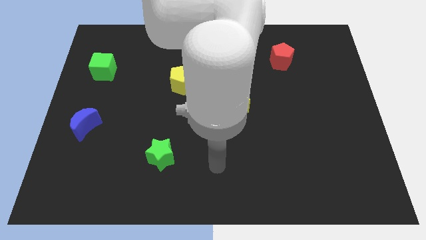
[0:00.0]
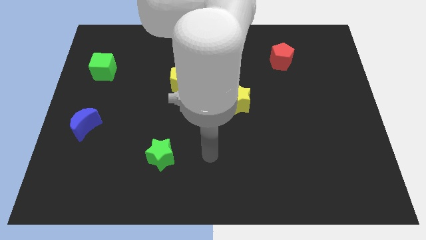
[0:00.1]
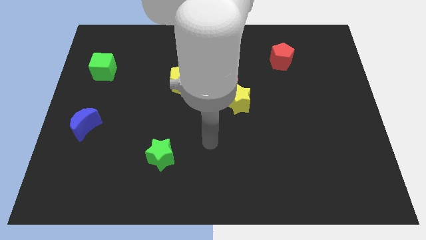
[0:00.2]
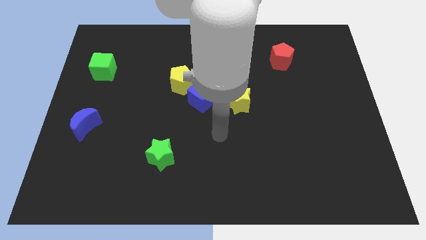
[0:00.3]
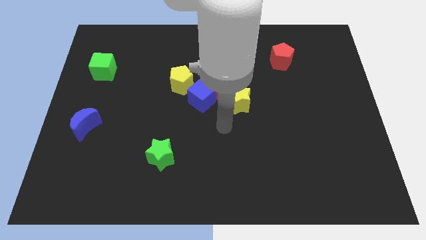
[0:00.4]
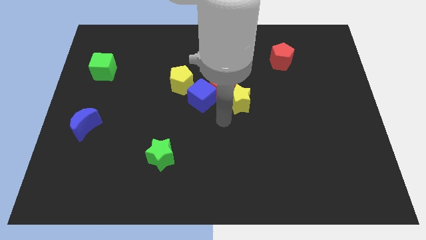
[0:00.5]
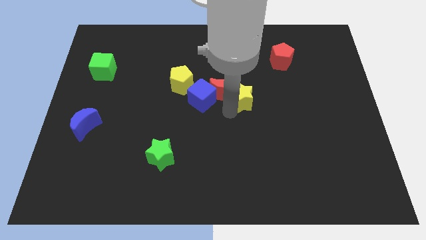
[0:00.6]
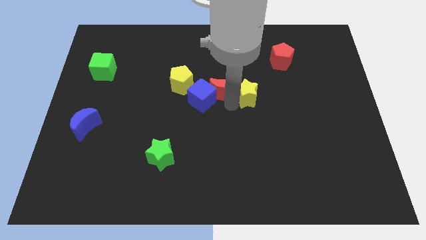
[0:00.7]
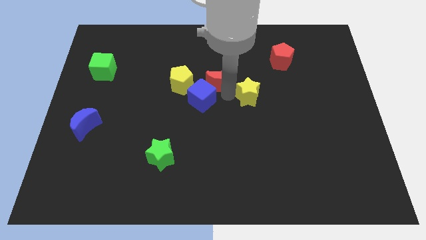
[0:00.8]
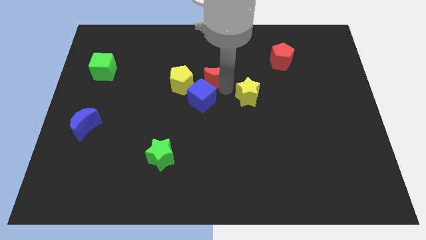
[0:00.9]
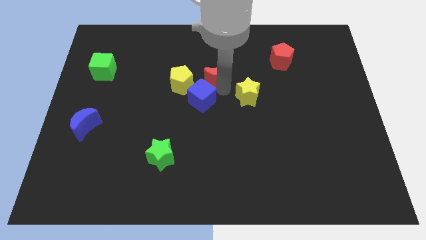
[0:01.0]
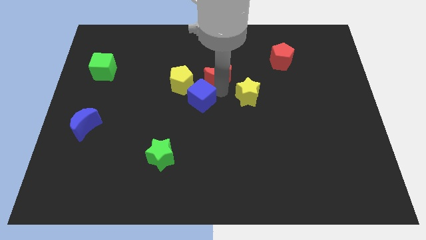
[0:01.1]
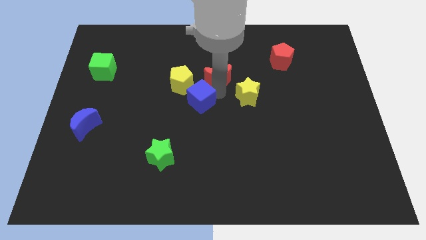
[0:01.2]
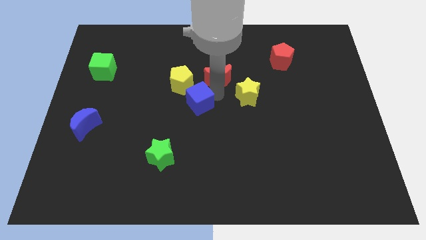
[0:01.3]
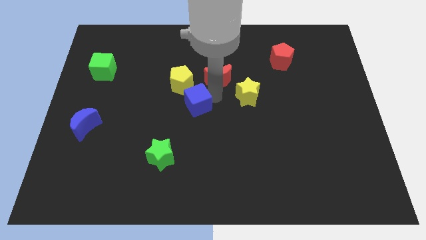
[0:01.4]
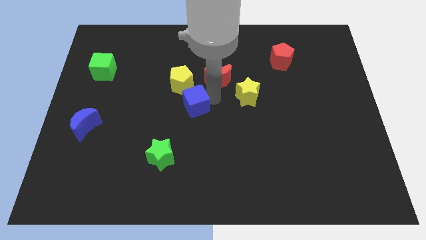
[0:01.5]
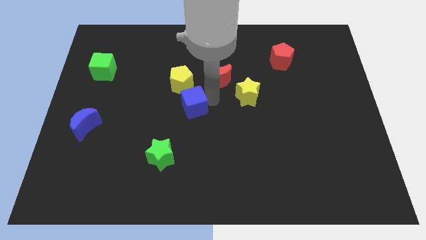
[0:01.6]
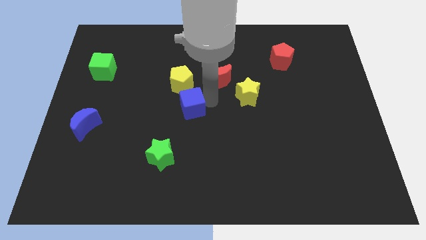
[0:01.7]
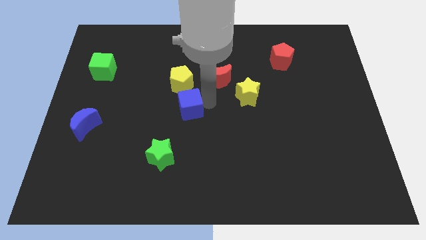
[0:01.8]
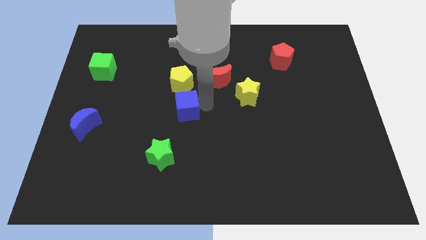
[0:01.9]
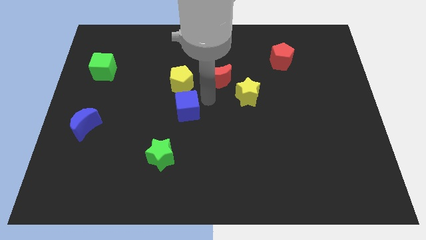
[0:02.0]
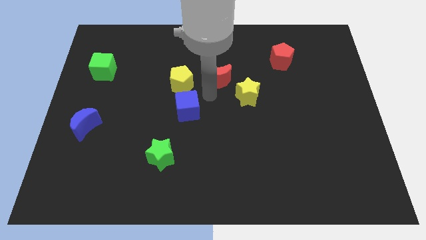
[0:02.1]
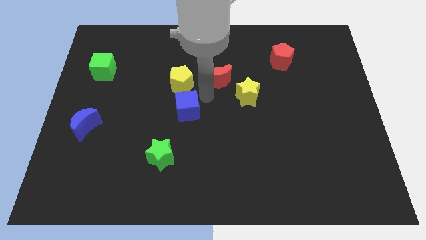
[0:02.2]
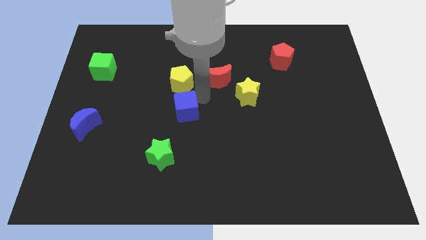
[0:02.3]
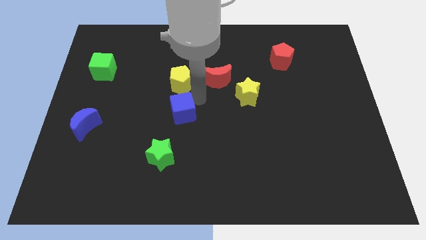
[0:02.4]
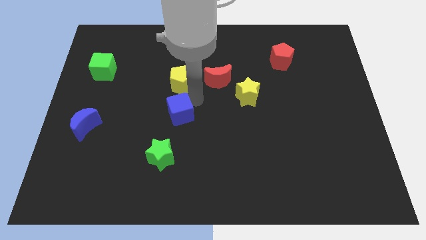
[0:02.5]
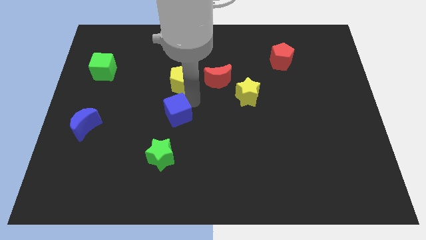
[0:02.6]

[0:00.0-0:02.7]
push the blue cube a little downwards and left diagonally

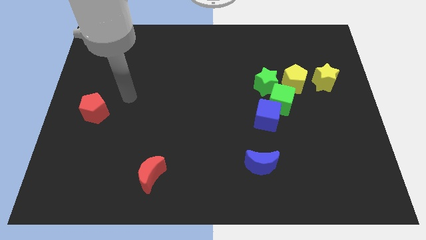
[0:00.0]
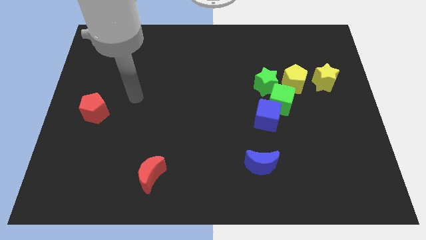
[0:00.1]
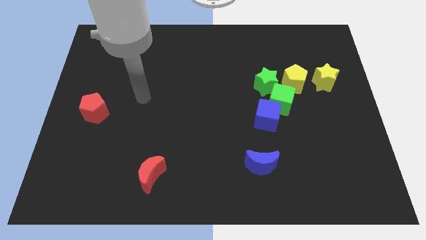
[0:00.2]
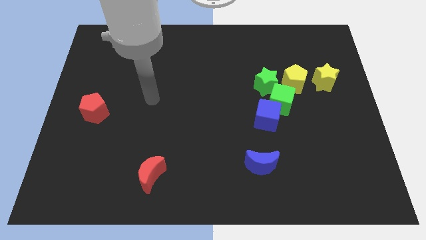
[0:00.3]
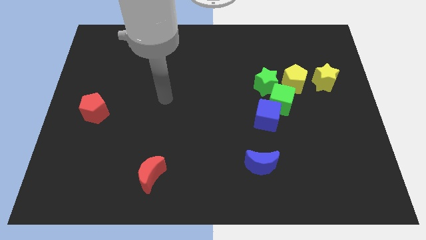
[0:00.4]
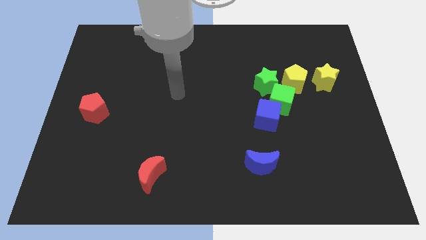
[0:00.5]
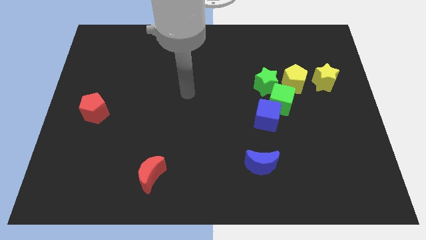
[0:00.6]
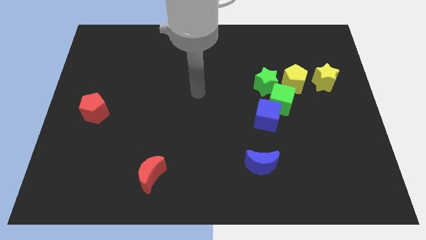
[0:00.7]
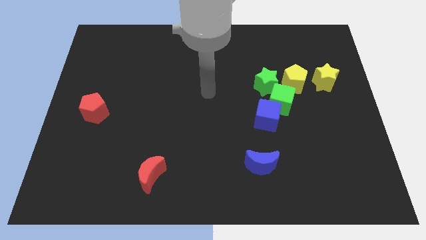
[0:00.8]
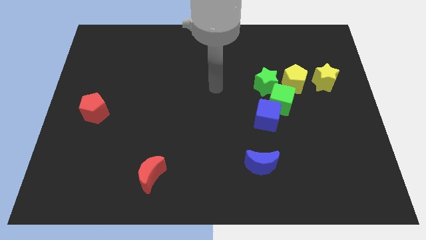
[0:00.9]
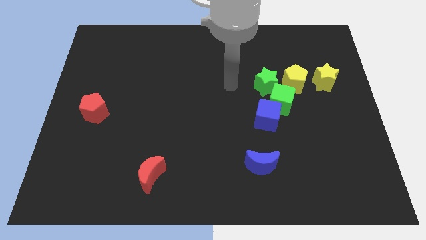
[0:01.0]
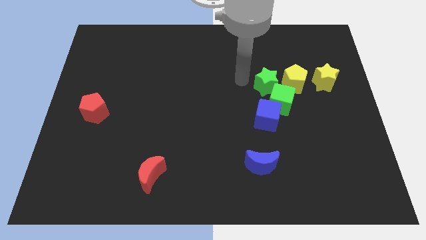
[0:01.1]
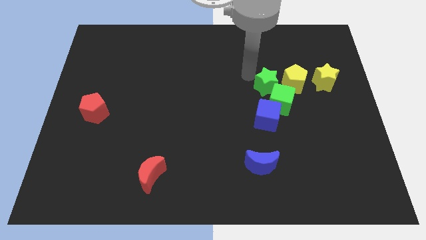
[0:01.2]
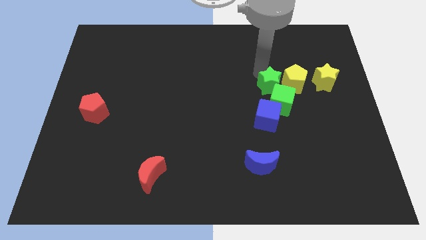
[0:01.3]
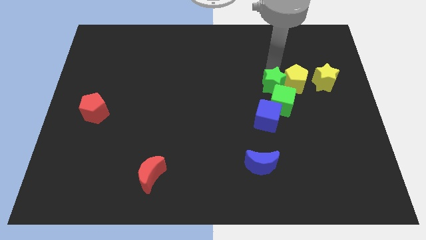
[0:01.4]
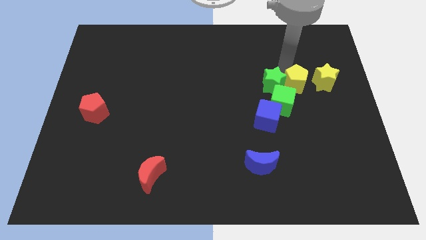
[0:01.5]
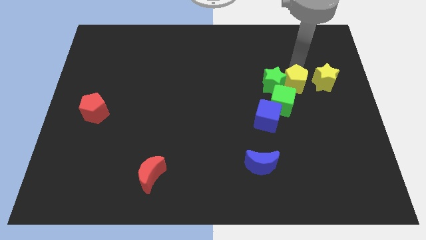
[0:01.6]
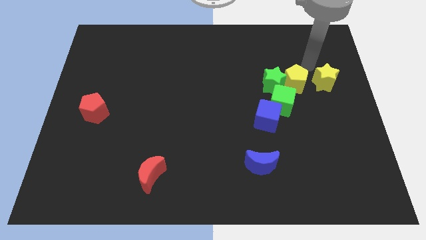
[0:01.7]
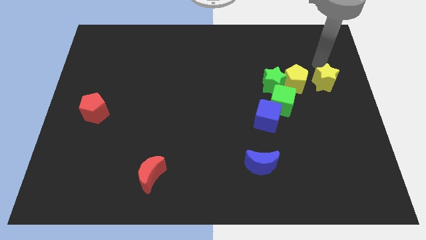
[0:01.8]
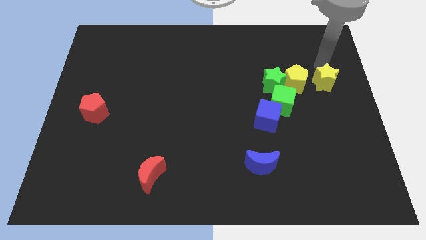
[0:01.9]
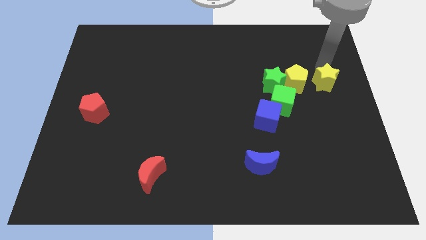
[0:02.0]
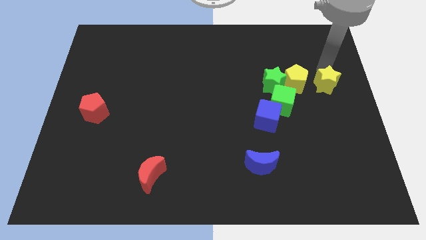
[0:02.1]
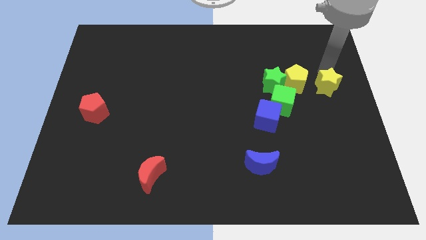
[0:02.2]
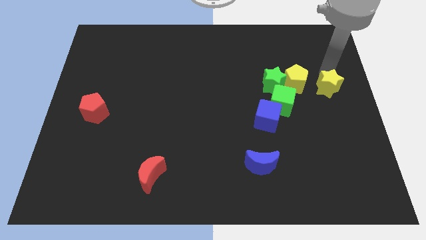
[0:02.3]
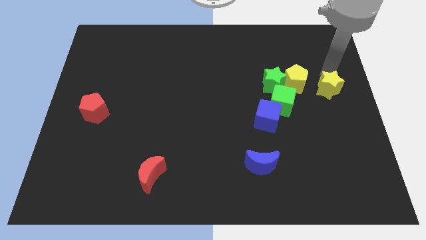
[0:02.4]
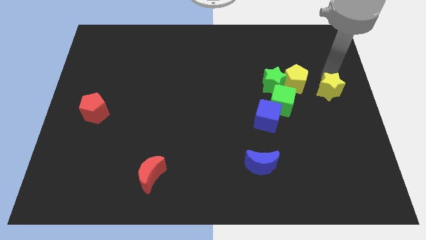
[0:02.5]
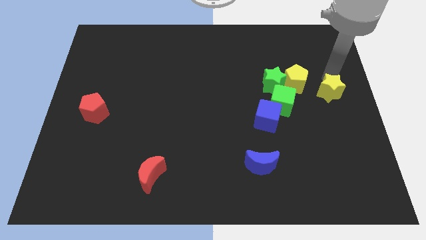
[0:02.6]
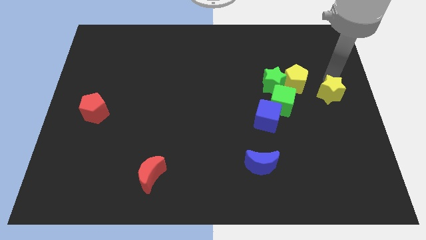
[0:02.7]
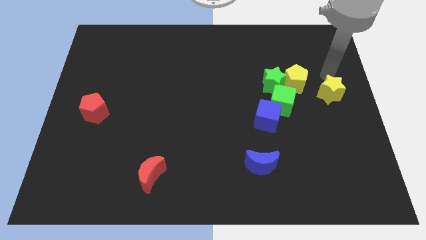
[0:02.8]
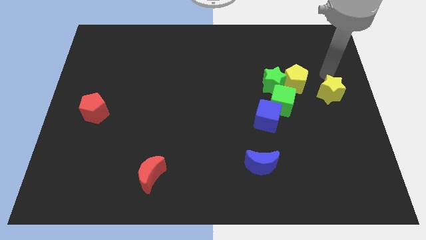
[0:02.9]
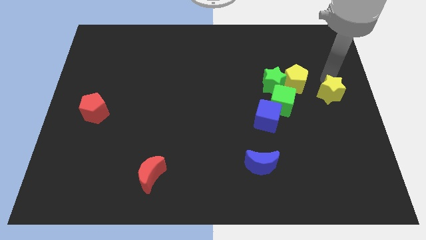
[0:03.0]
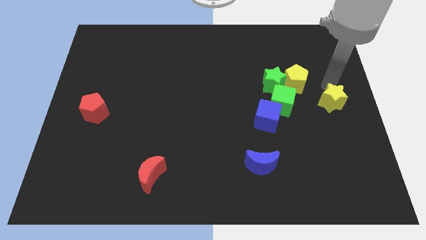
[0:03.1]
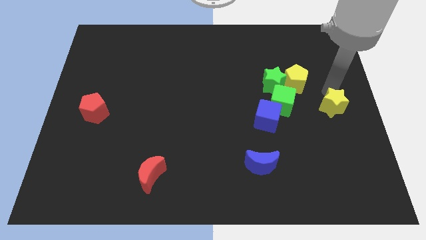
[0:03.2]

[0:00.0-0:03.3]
slightly push the yellow star downwards

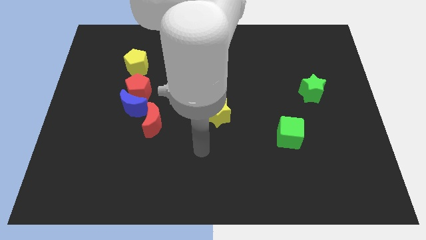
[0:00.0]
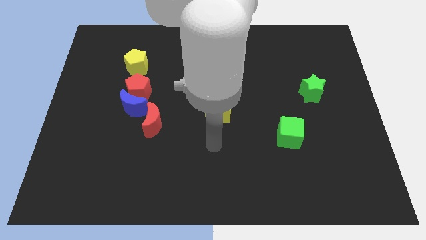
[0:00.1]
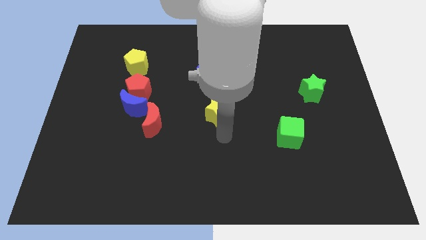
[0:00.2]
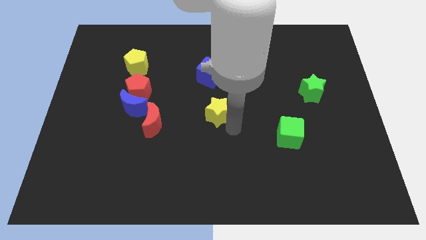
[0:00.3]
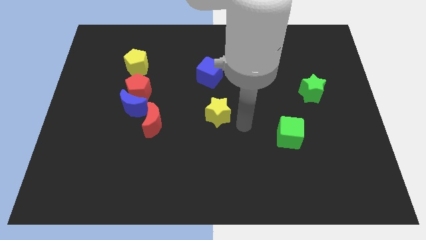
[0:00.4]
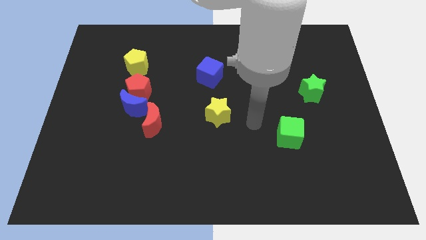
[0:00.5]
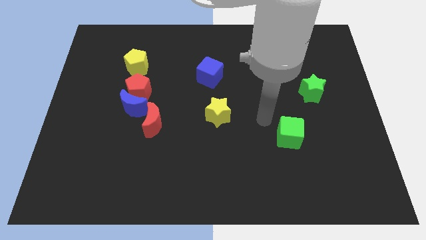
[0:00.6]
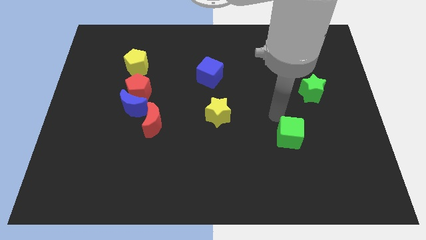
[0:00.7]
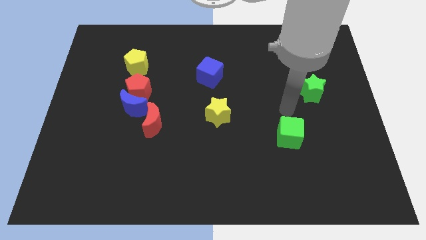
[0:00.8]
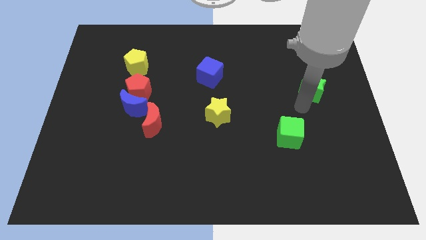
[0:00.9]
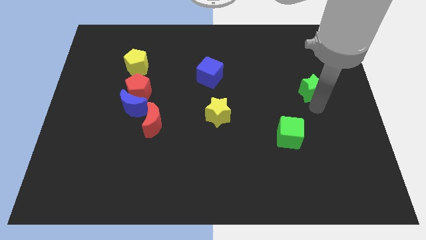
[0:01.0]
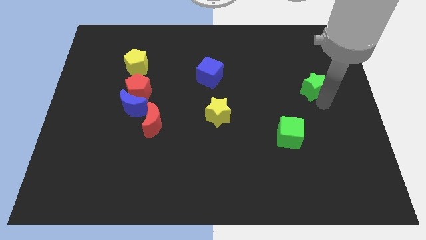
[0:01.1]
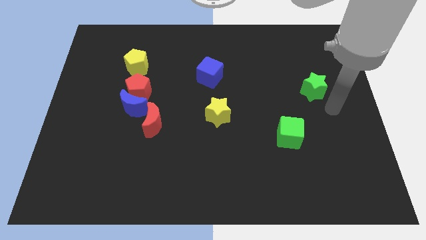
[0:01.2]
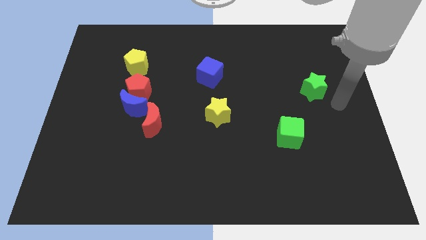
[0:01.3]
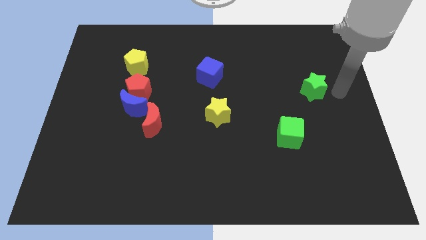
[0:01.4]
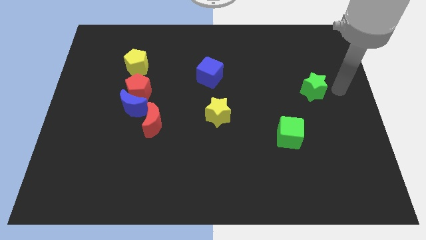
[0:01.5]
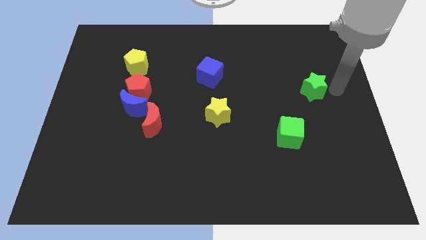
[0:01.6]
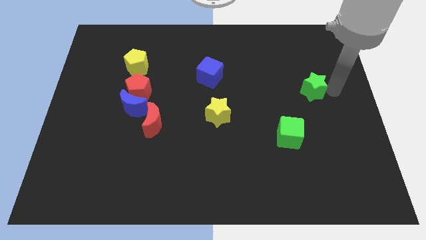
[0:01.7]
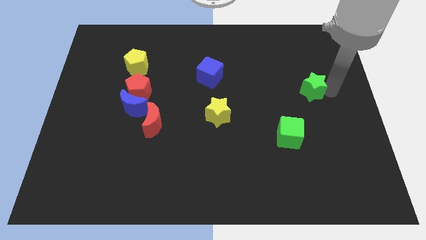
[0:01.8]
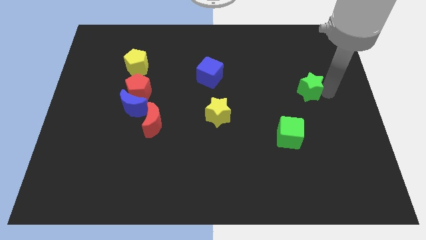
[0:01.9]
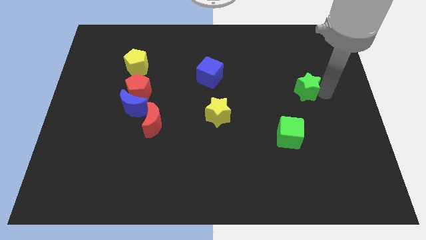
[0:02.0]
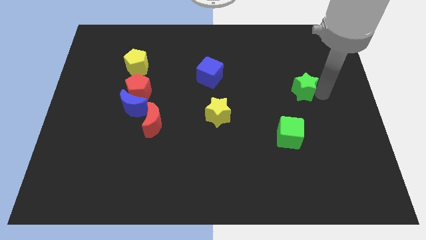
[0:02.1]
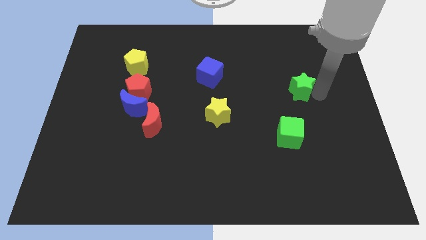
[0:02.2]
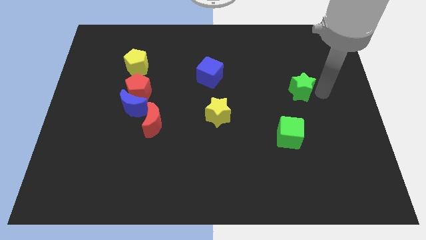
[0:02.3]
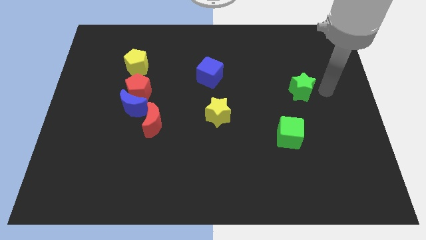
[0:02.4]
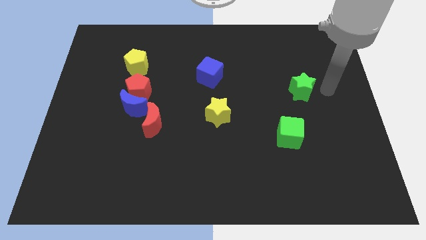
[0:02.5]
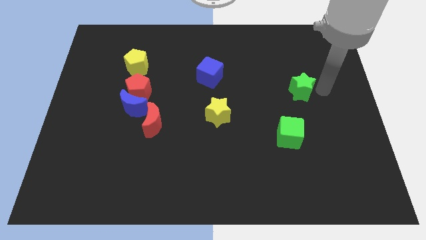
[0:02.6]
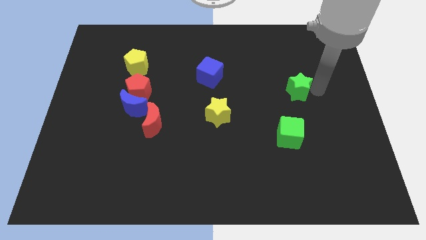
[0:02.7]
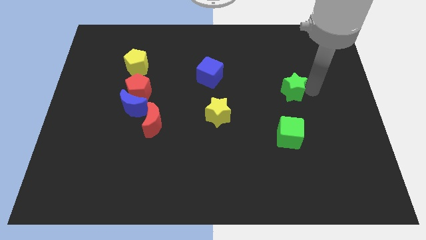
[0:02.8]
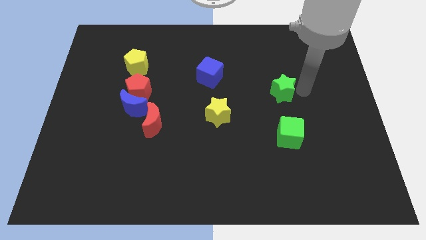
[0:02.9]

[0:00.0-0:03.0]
slightly push the green star left
